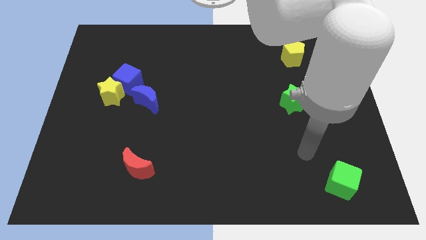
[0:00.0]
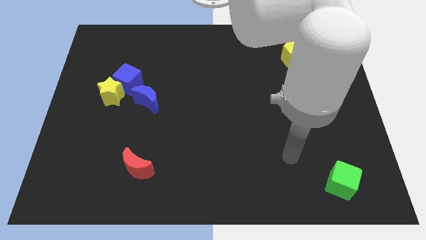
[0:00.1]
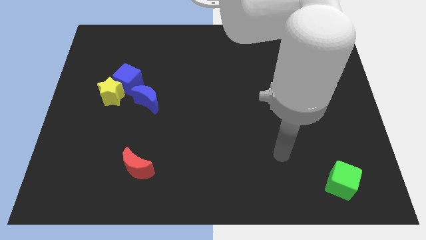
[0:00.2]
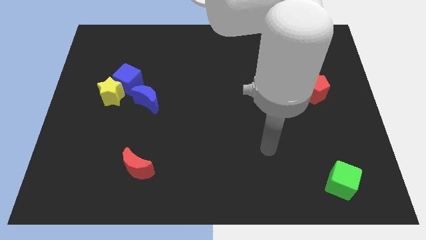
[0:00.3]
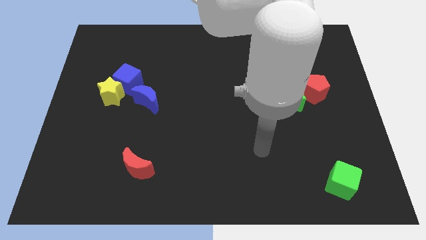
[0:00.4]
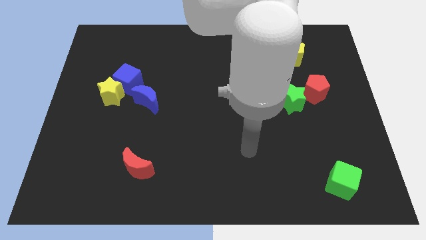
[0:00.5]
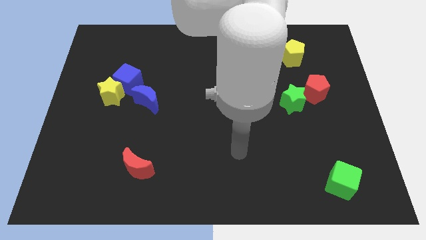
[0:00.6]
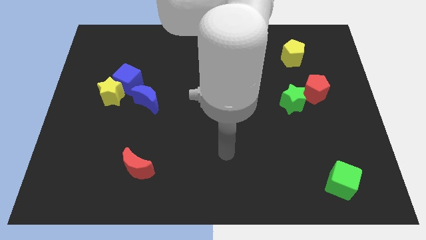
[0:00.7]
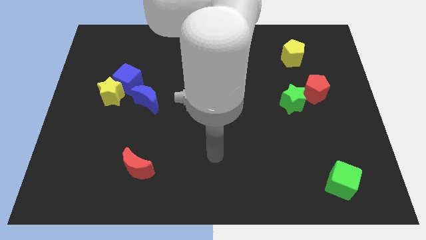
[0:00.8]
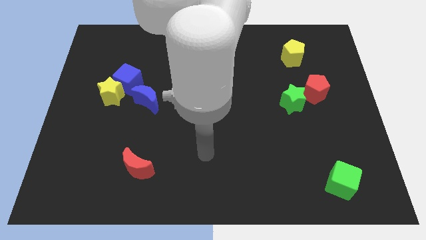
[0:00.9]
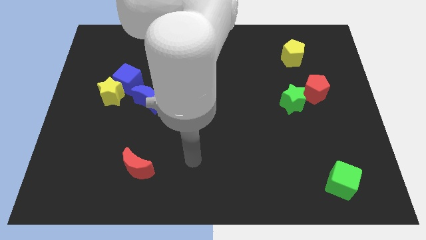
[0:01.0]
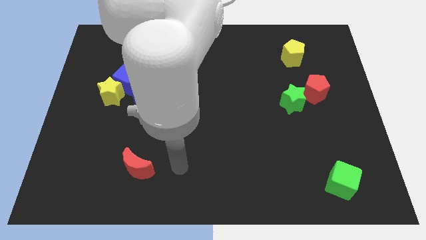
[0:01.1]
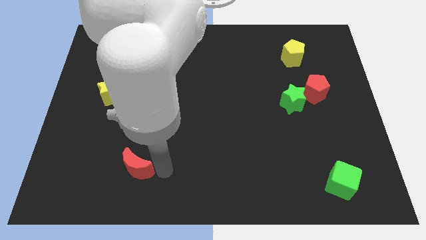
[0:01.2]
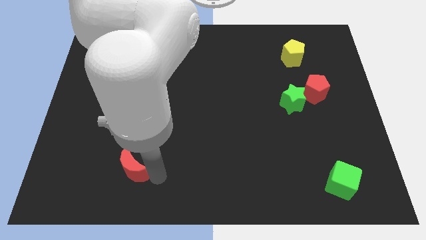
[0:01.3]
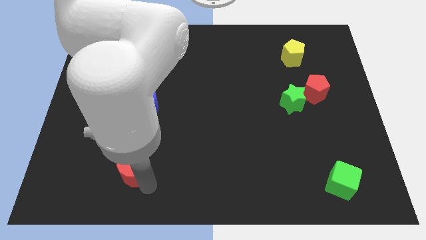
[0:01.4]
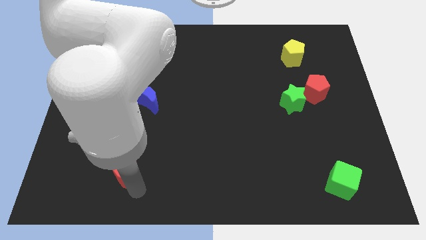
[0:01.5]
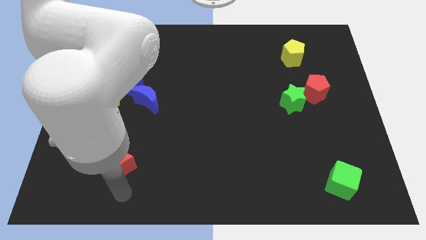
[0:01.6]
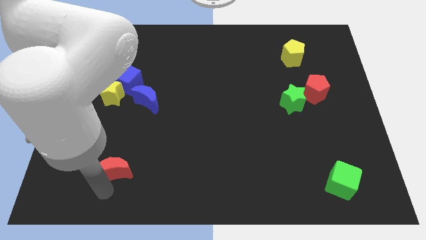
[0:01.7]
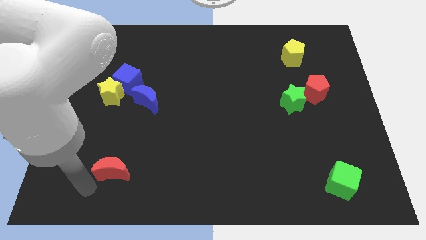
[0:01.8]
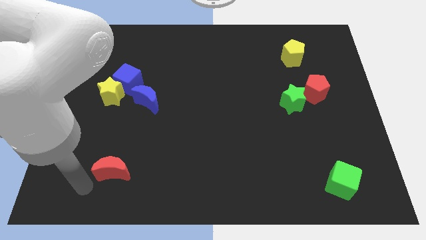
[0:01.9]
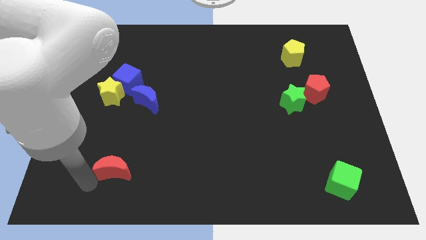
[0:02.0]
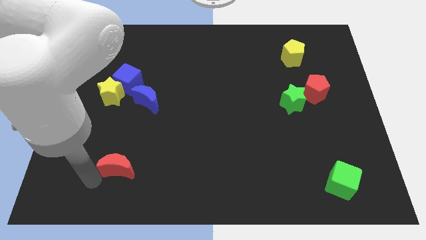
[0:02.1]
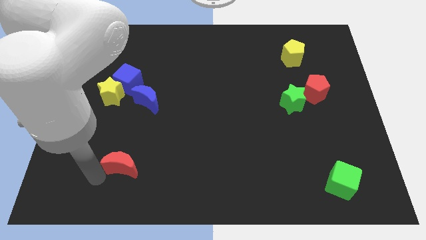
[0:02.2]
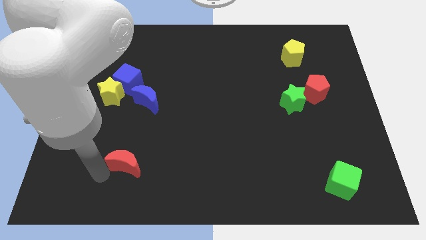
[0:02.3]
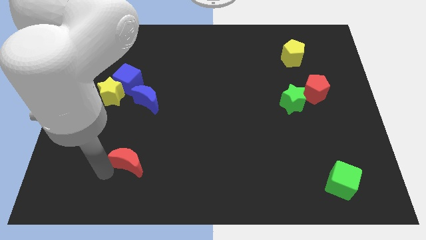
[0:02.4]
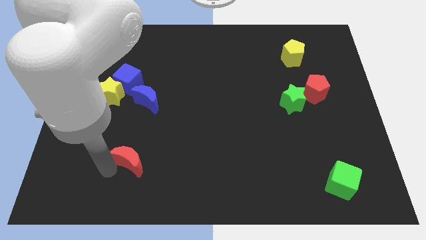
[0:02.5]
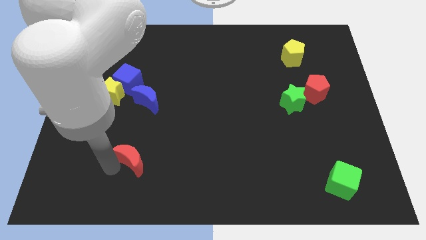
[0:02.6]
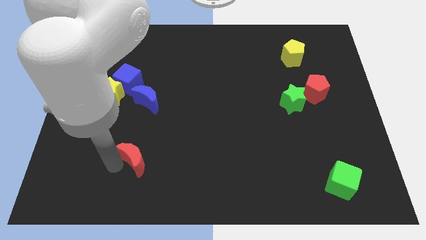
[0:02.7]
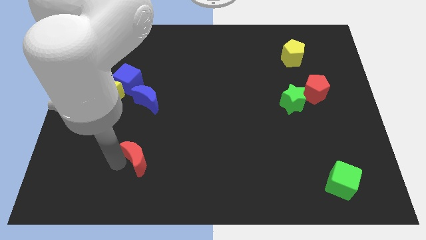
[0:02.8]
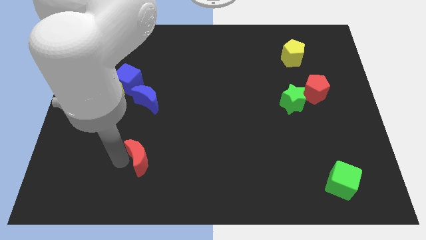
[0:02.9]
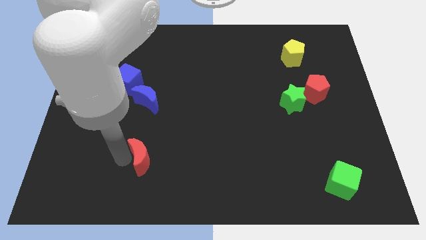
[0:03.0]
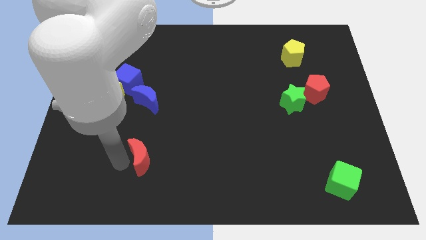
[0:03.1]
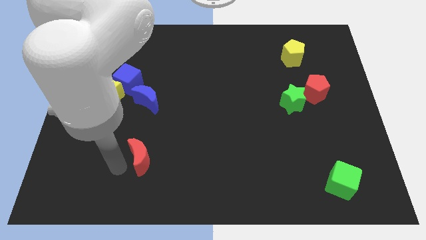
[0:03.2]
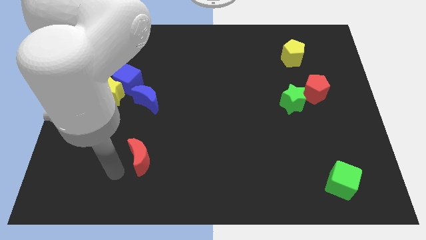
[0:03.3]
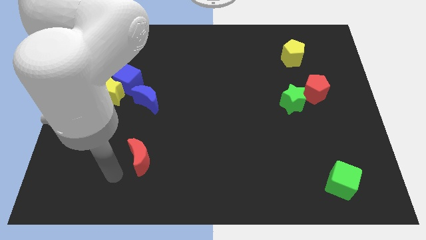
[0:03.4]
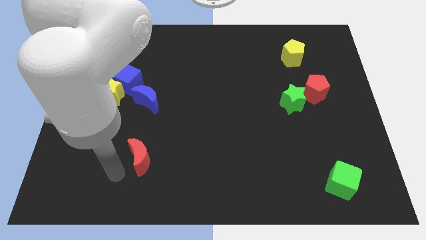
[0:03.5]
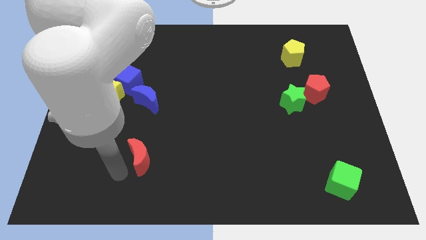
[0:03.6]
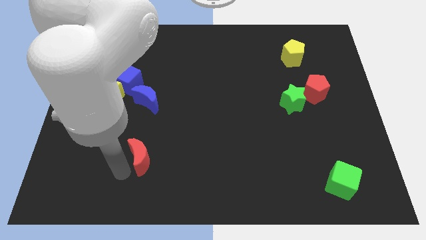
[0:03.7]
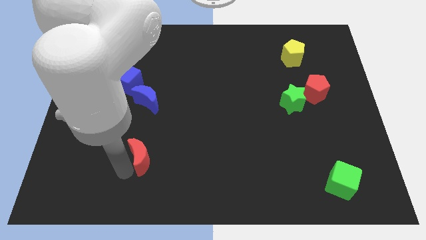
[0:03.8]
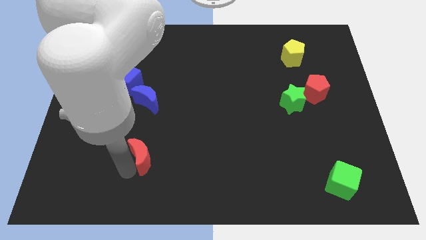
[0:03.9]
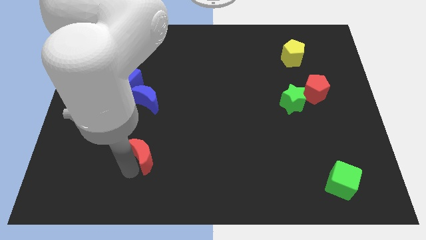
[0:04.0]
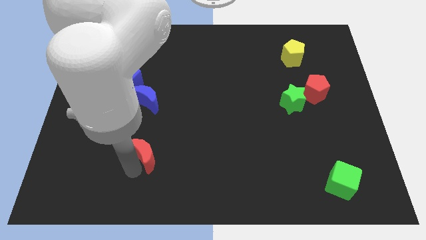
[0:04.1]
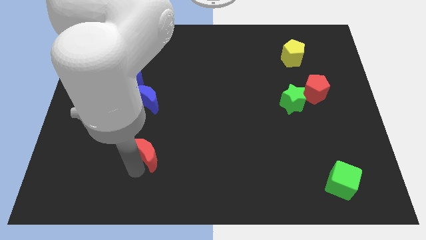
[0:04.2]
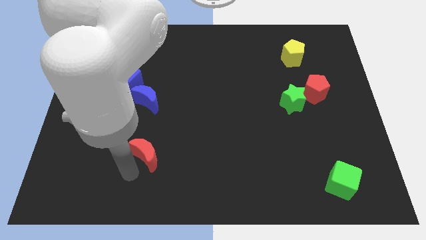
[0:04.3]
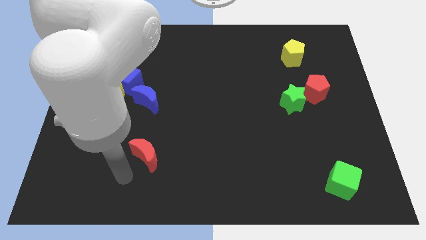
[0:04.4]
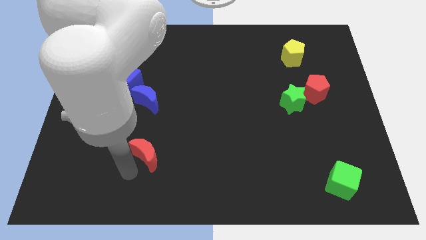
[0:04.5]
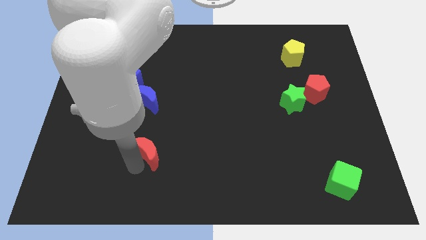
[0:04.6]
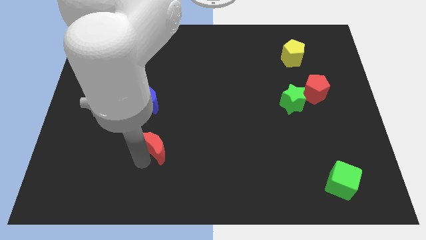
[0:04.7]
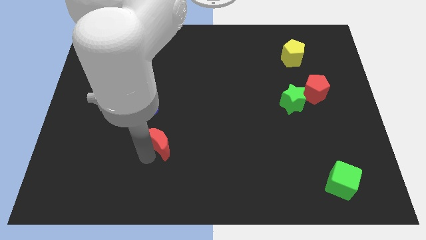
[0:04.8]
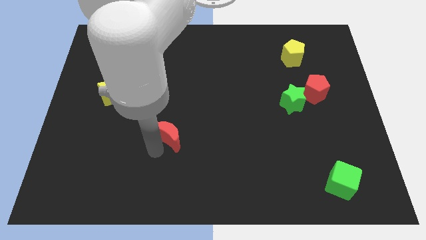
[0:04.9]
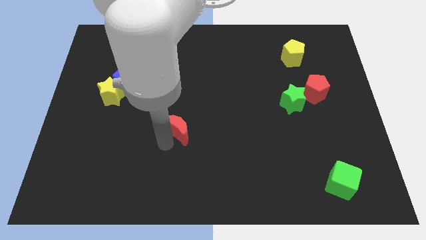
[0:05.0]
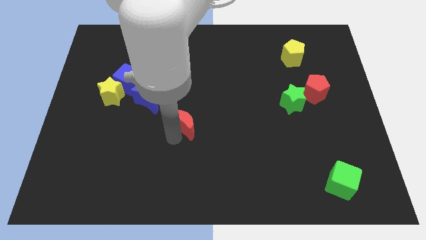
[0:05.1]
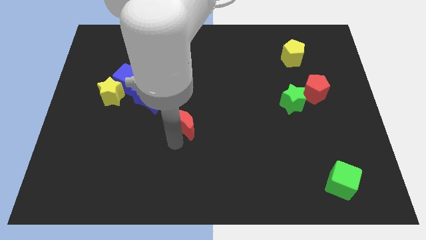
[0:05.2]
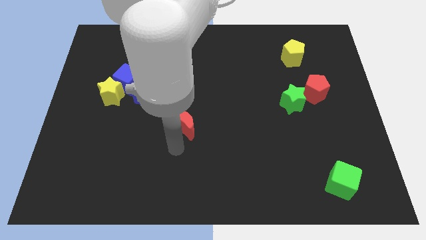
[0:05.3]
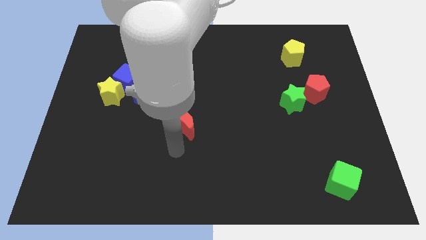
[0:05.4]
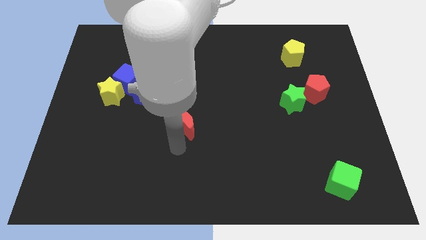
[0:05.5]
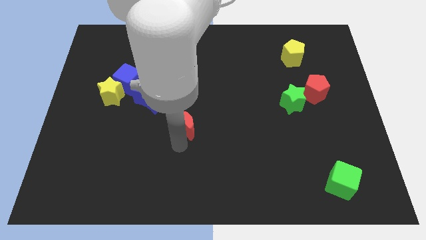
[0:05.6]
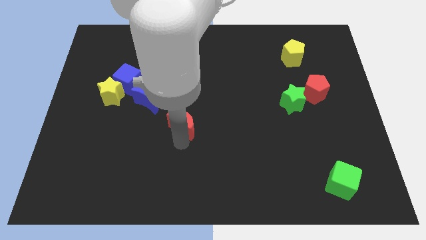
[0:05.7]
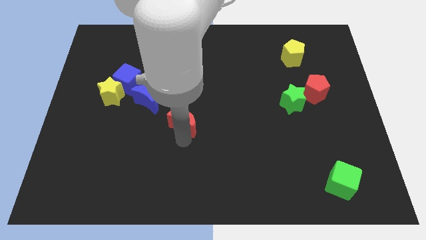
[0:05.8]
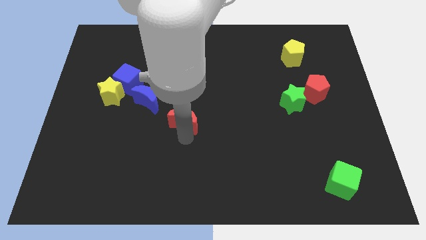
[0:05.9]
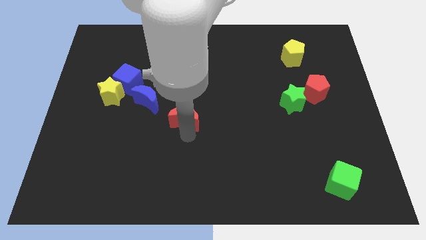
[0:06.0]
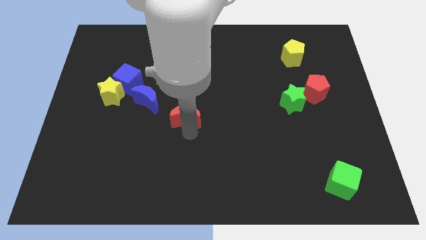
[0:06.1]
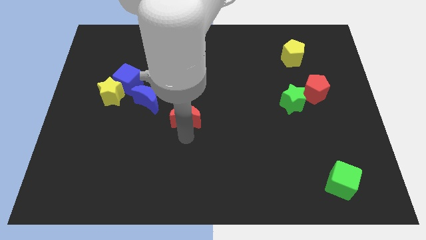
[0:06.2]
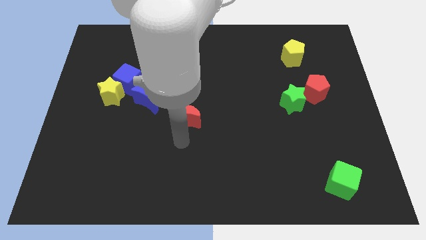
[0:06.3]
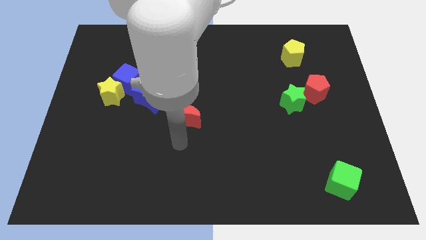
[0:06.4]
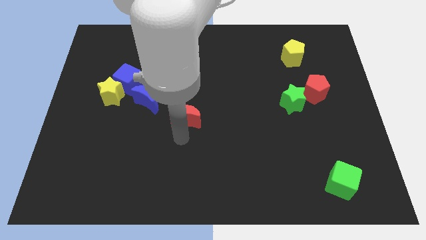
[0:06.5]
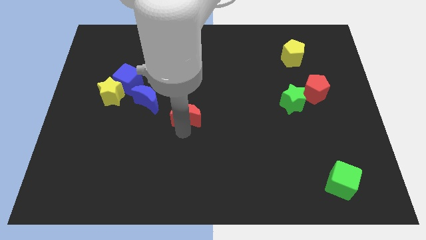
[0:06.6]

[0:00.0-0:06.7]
put the red moon just right of the blue moon

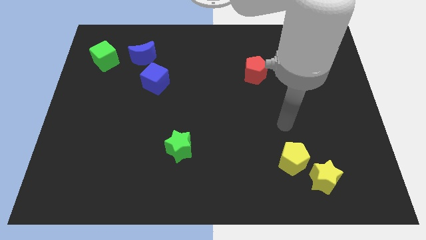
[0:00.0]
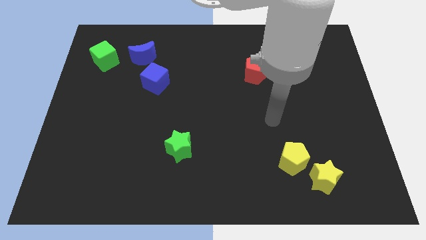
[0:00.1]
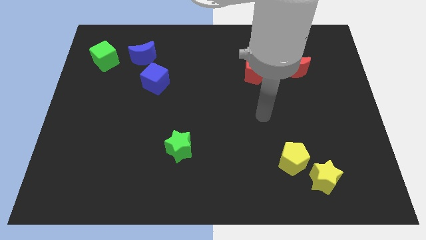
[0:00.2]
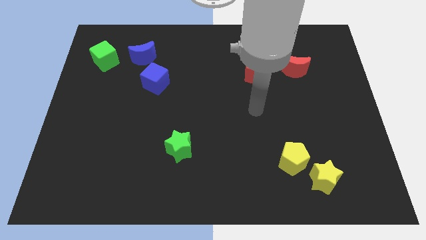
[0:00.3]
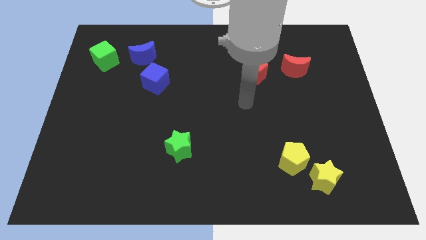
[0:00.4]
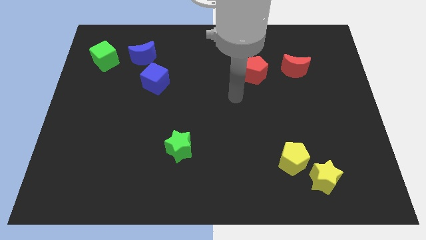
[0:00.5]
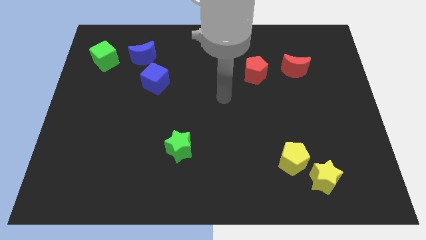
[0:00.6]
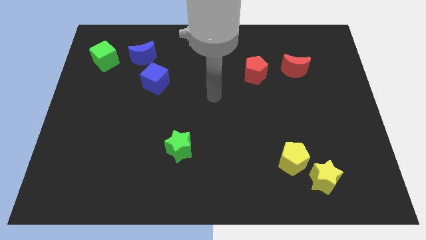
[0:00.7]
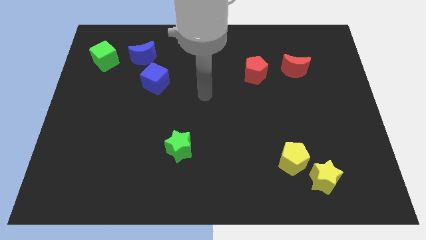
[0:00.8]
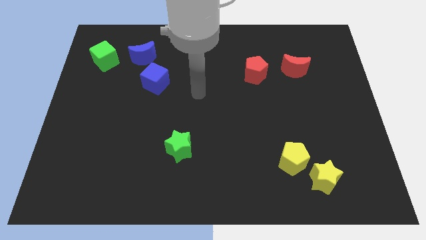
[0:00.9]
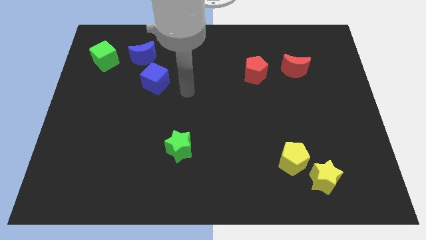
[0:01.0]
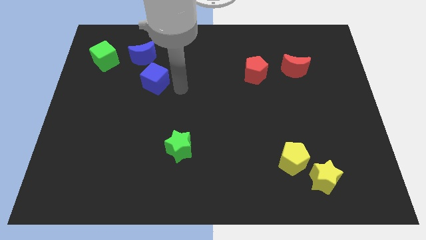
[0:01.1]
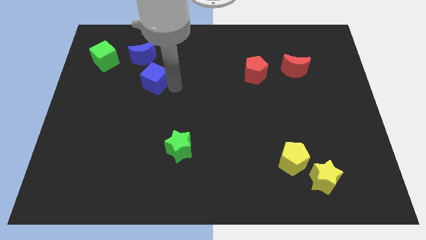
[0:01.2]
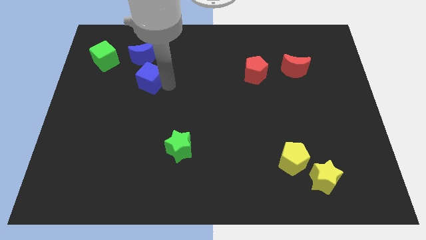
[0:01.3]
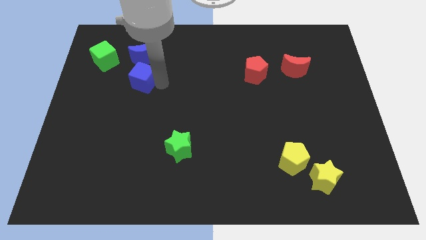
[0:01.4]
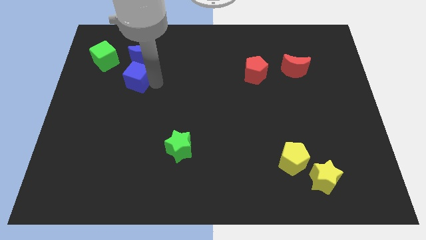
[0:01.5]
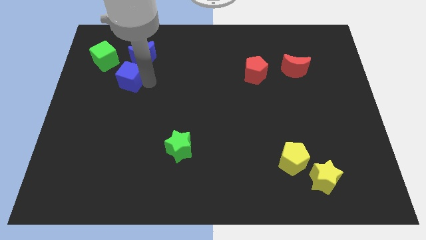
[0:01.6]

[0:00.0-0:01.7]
put the blue cube to the bottom left of the blue moon
